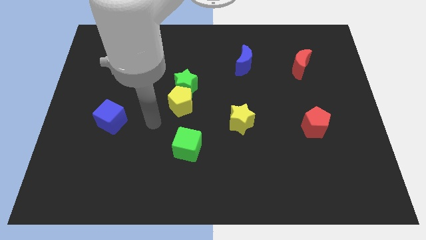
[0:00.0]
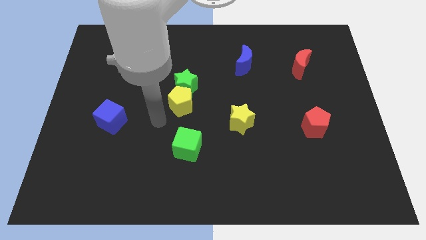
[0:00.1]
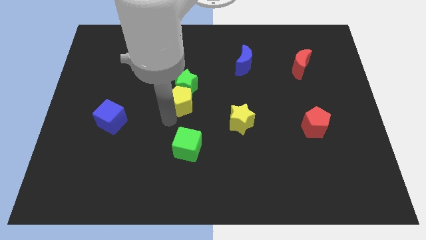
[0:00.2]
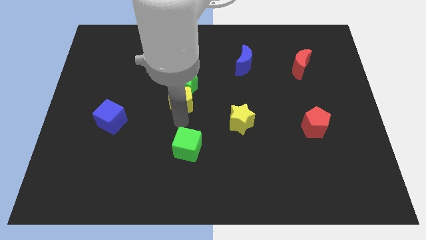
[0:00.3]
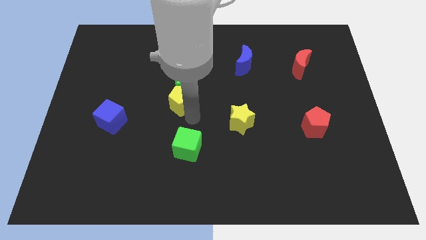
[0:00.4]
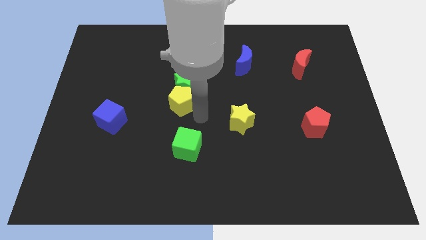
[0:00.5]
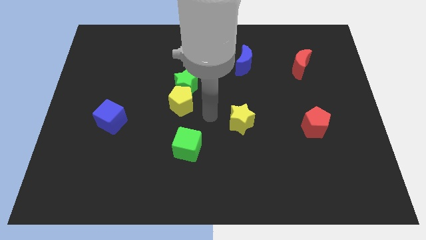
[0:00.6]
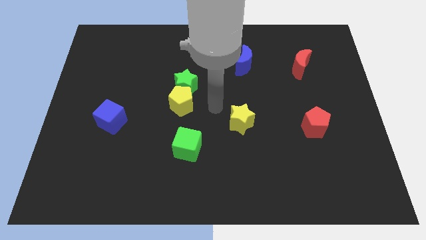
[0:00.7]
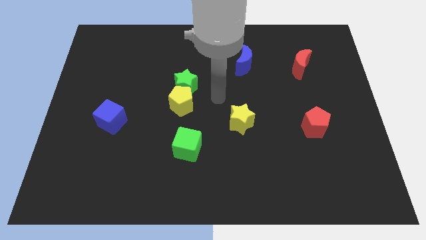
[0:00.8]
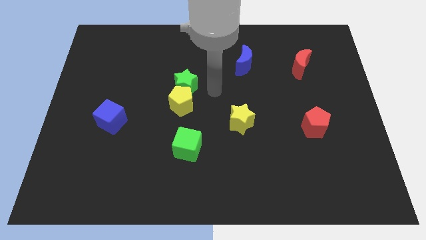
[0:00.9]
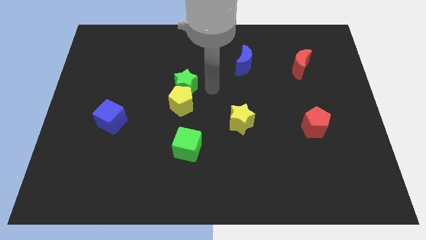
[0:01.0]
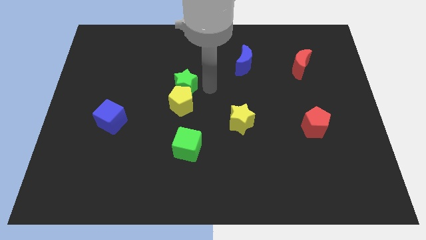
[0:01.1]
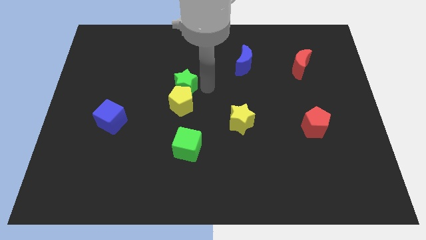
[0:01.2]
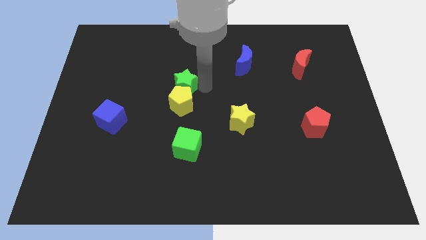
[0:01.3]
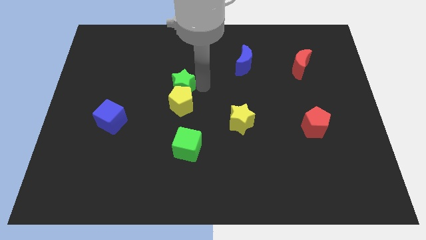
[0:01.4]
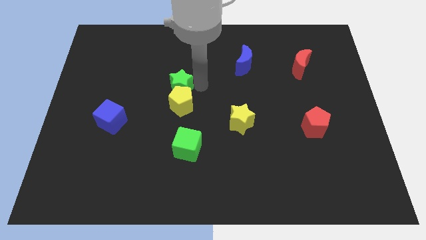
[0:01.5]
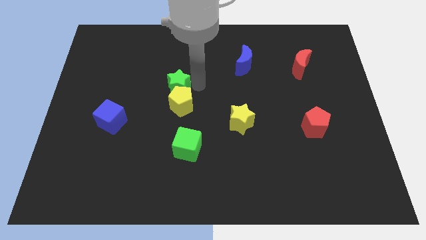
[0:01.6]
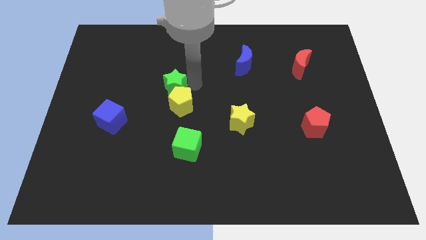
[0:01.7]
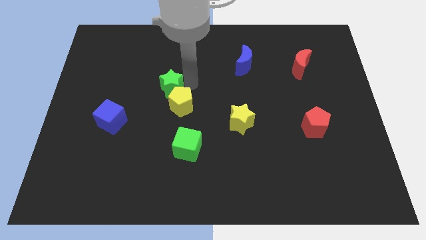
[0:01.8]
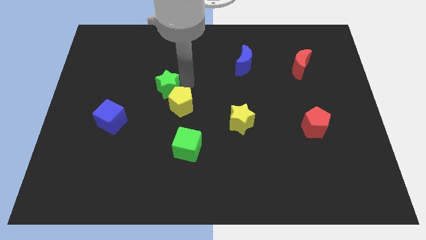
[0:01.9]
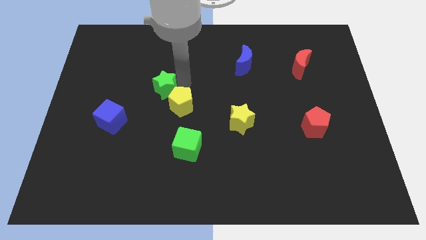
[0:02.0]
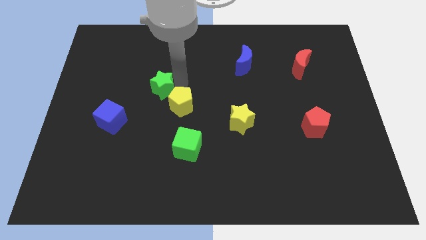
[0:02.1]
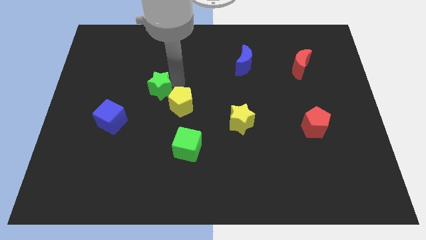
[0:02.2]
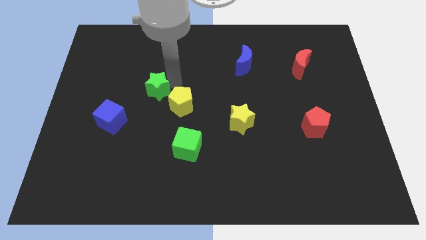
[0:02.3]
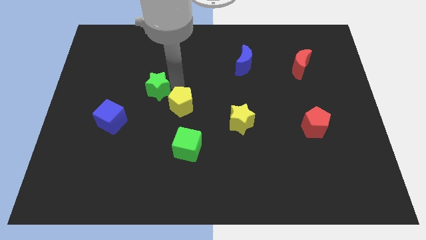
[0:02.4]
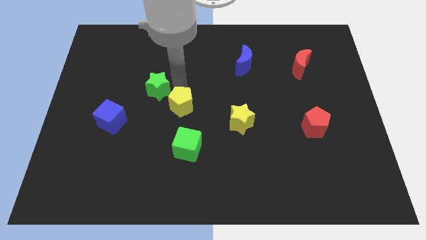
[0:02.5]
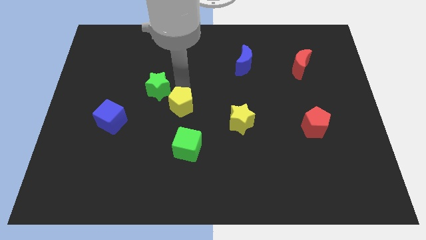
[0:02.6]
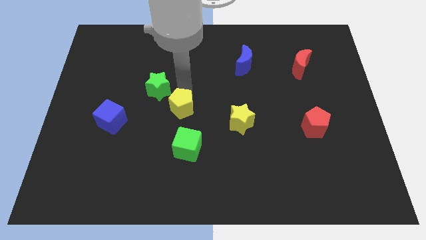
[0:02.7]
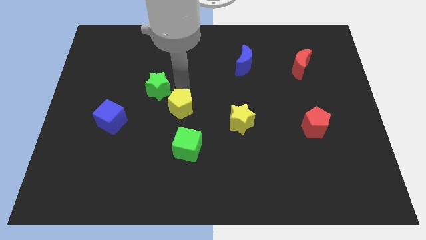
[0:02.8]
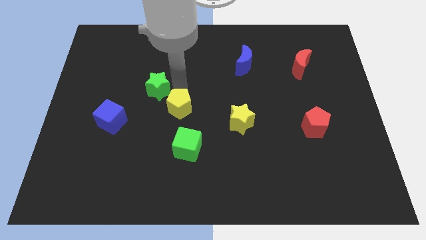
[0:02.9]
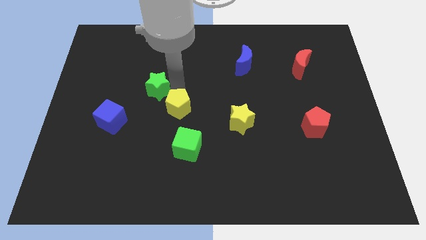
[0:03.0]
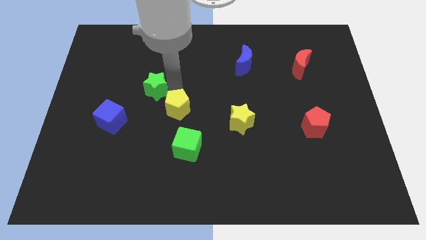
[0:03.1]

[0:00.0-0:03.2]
push the green star left a bit

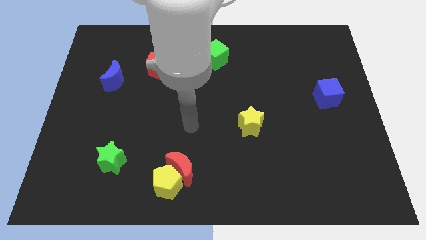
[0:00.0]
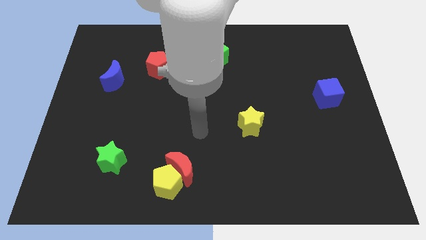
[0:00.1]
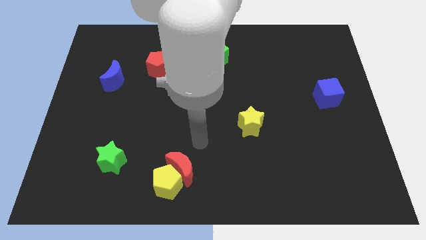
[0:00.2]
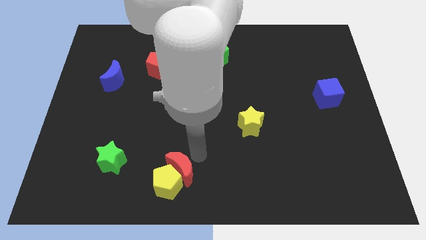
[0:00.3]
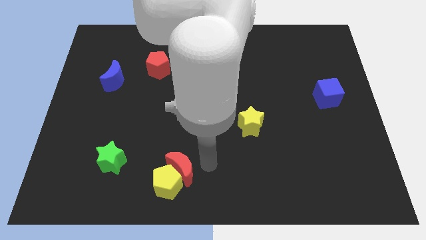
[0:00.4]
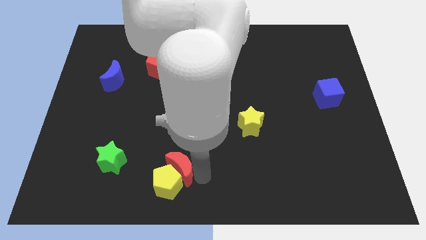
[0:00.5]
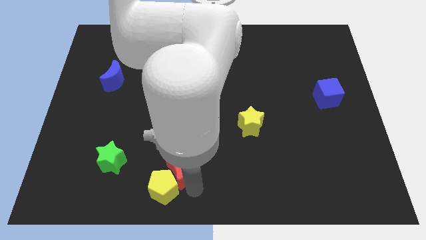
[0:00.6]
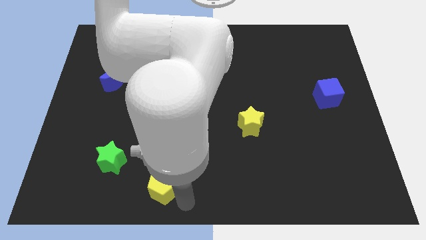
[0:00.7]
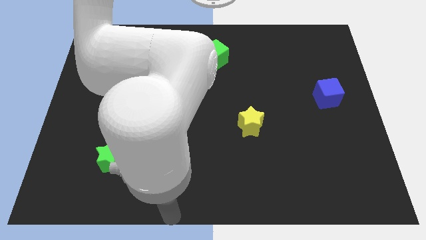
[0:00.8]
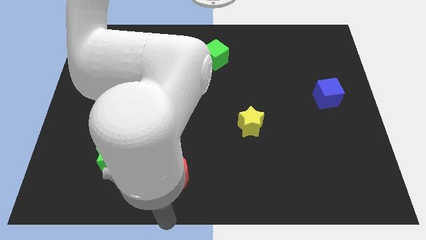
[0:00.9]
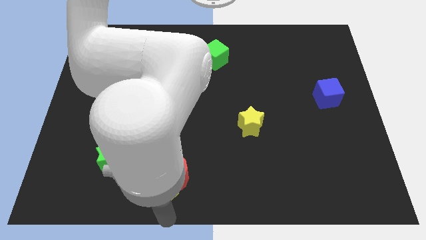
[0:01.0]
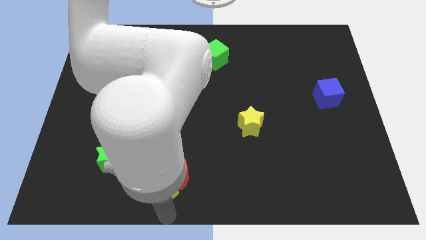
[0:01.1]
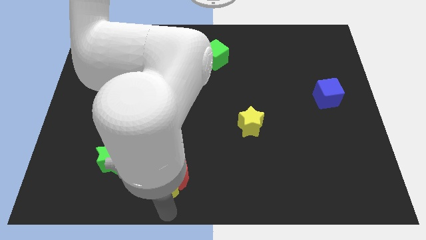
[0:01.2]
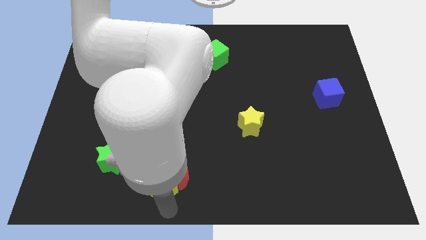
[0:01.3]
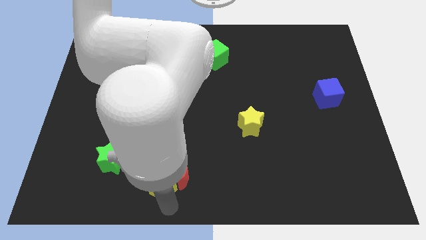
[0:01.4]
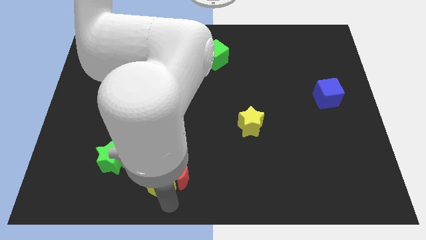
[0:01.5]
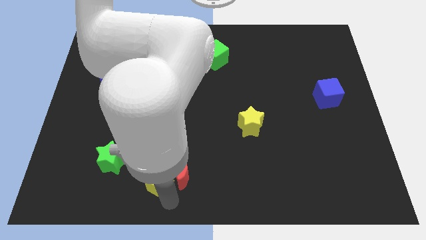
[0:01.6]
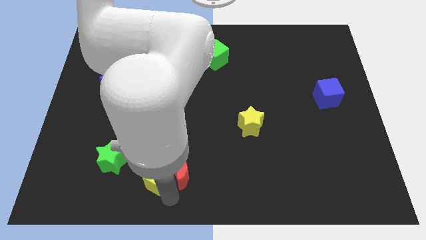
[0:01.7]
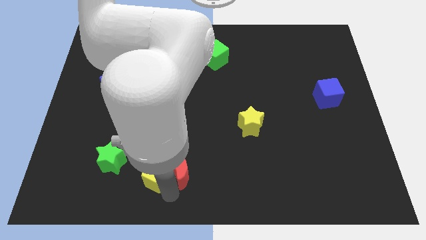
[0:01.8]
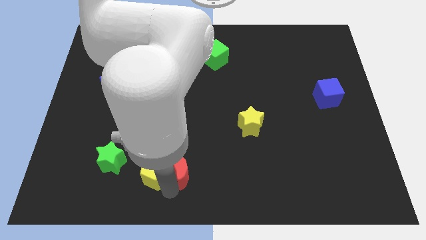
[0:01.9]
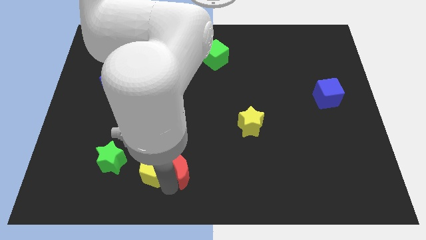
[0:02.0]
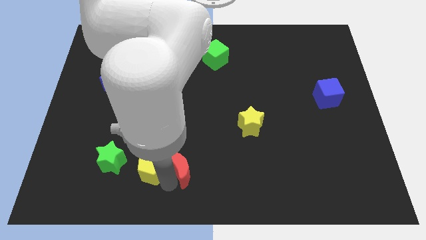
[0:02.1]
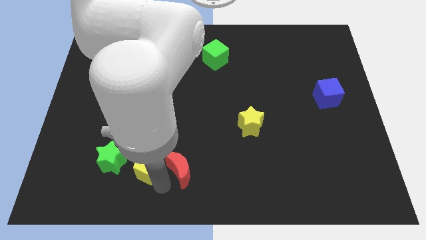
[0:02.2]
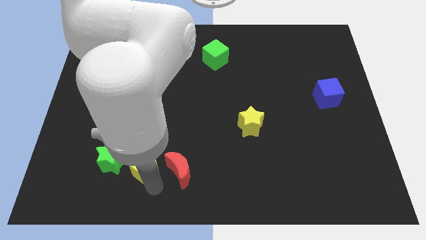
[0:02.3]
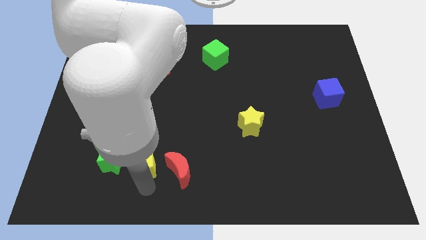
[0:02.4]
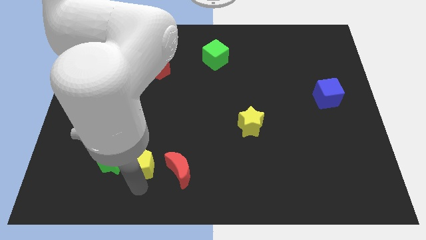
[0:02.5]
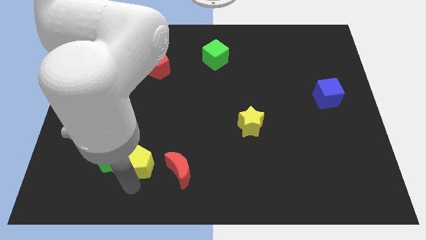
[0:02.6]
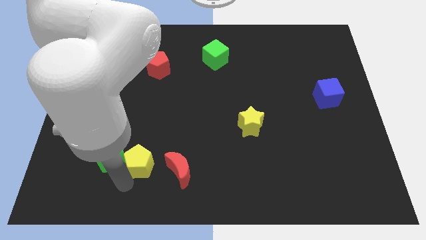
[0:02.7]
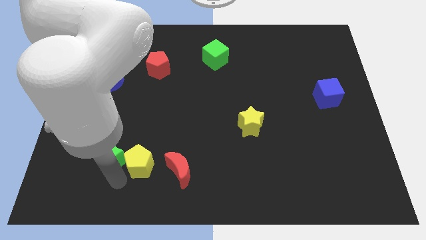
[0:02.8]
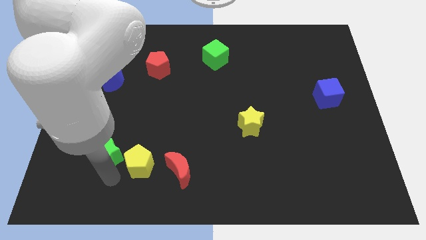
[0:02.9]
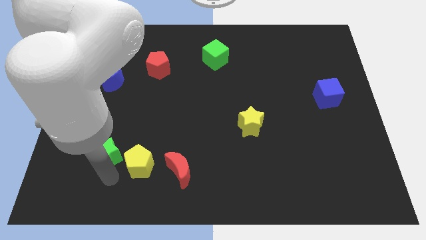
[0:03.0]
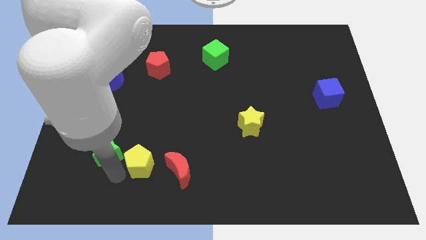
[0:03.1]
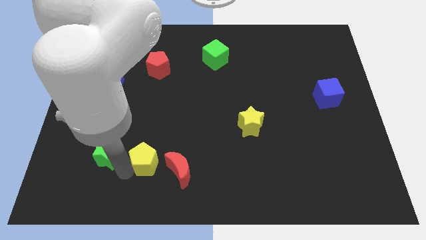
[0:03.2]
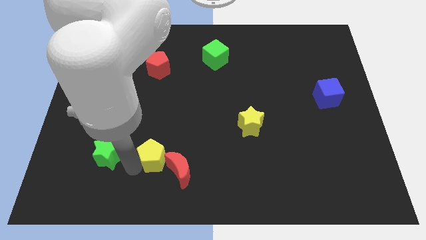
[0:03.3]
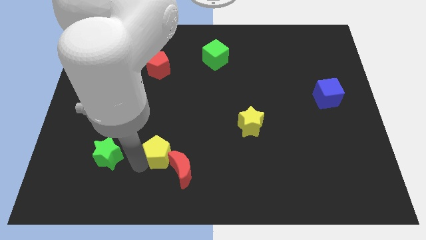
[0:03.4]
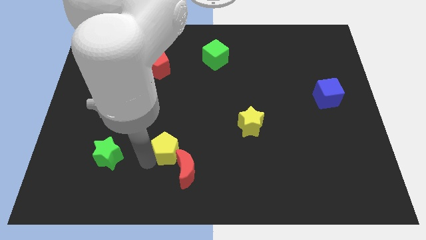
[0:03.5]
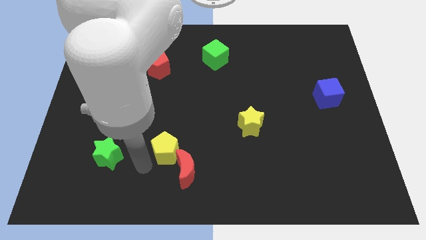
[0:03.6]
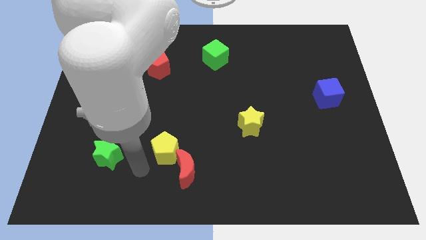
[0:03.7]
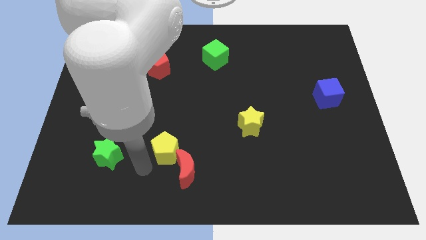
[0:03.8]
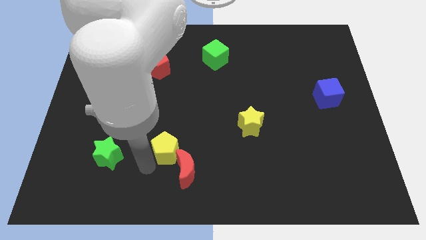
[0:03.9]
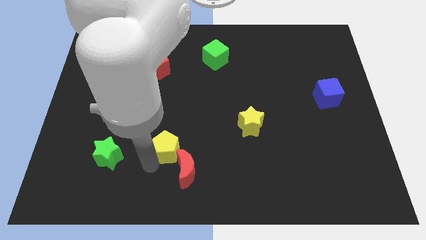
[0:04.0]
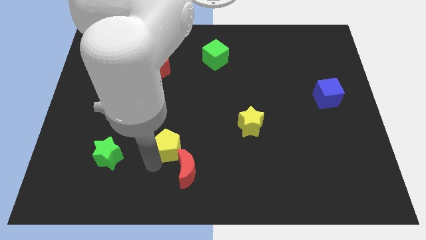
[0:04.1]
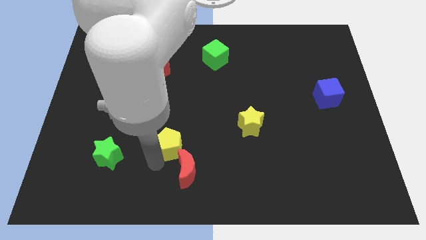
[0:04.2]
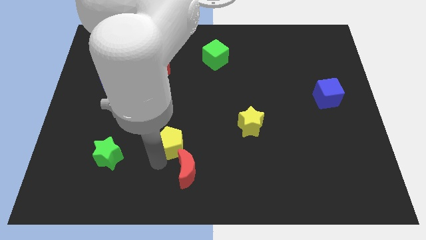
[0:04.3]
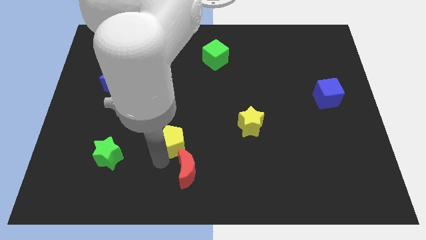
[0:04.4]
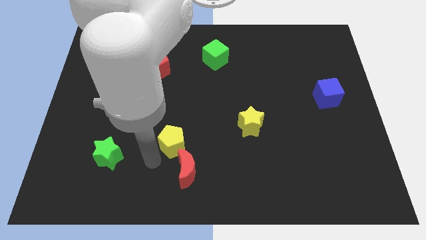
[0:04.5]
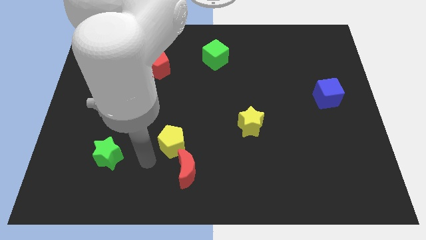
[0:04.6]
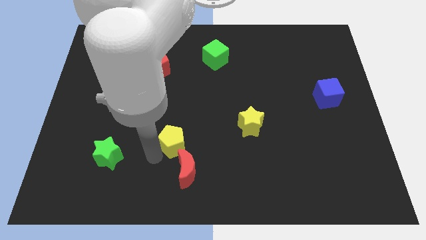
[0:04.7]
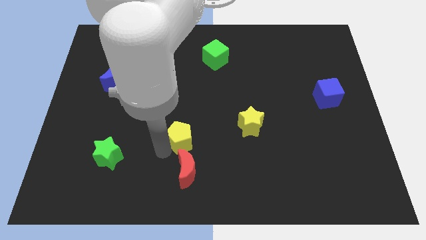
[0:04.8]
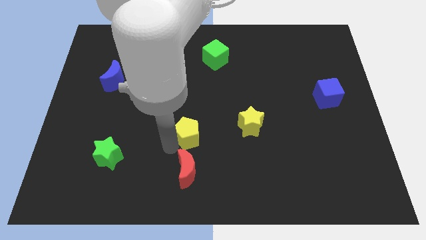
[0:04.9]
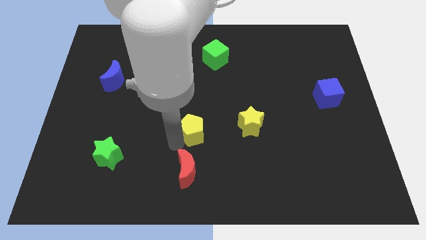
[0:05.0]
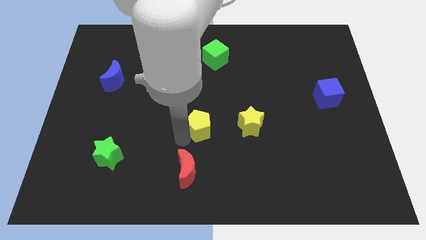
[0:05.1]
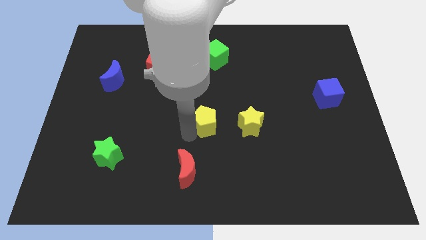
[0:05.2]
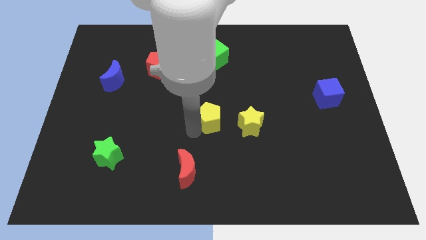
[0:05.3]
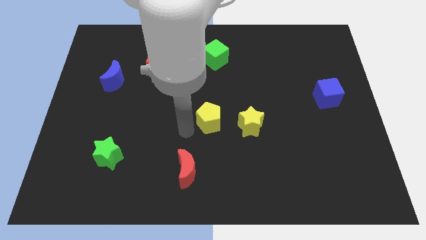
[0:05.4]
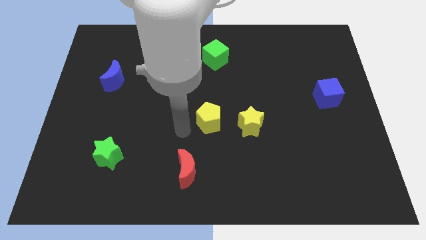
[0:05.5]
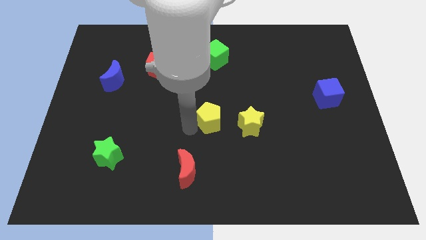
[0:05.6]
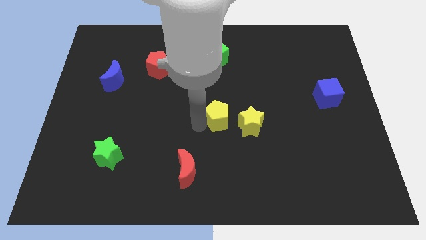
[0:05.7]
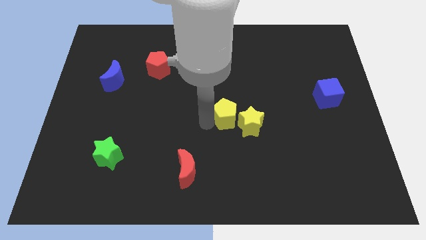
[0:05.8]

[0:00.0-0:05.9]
move the yellow pentagon up and then to the right
